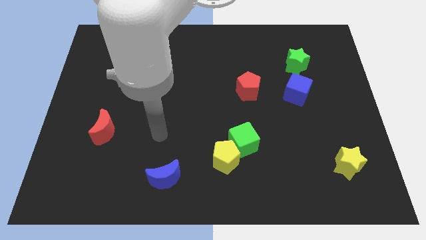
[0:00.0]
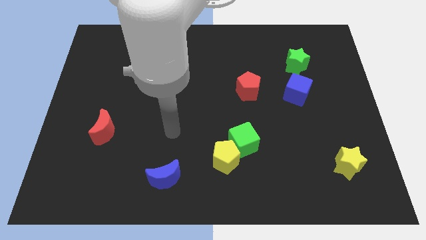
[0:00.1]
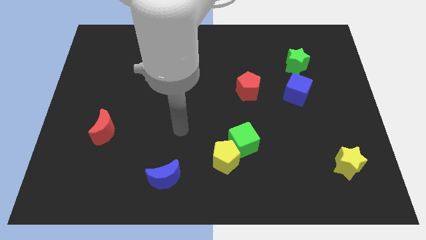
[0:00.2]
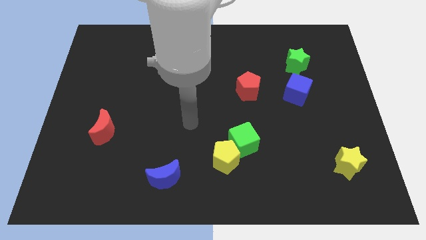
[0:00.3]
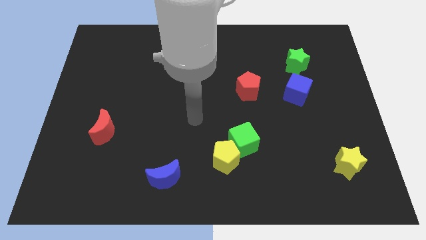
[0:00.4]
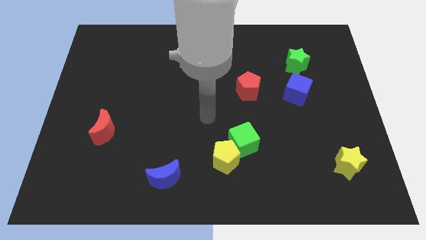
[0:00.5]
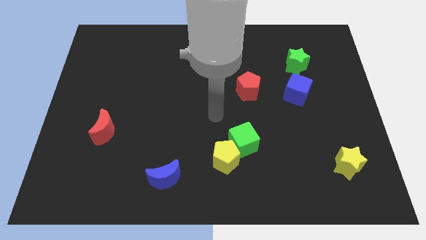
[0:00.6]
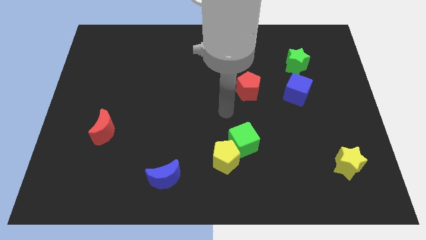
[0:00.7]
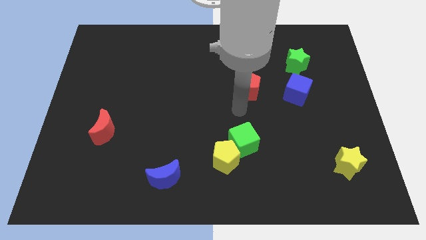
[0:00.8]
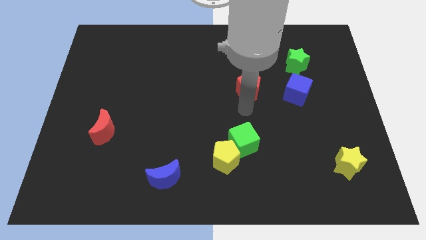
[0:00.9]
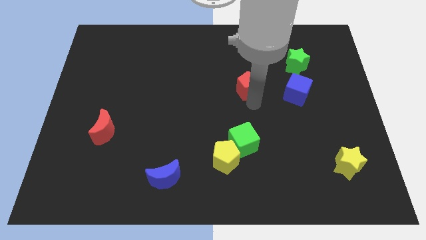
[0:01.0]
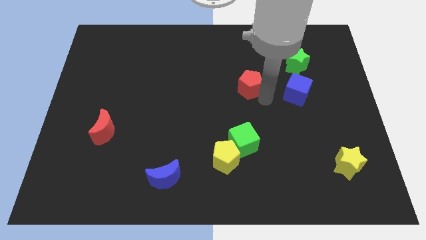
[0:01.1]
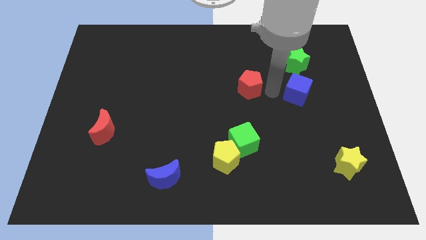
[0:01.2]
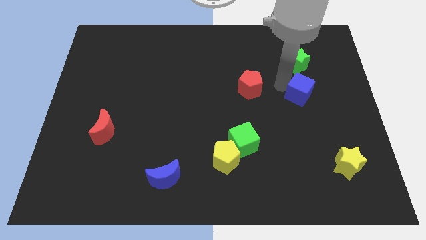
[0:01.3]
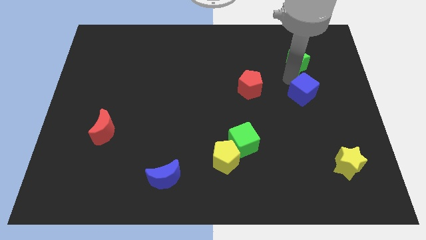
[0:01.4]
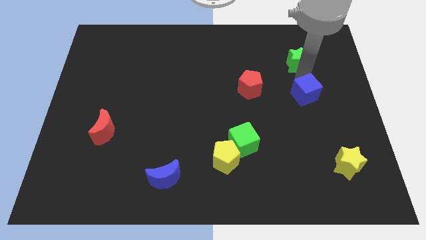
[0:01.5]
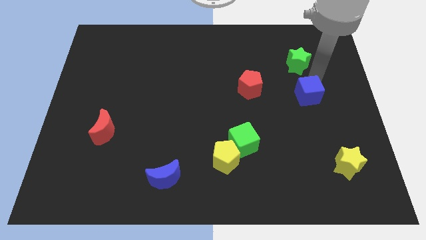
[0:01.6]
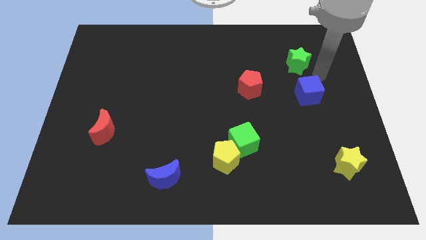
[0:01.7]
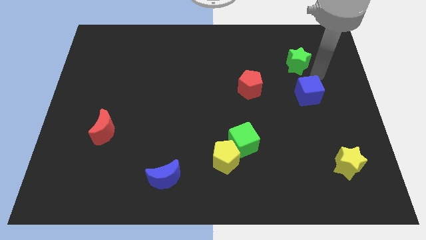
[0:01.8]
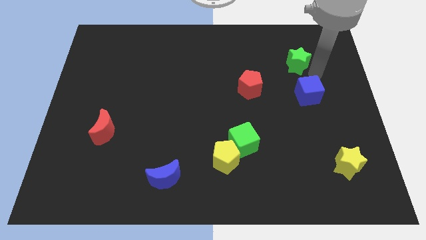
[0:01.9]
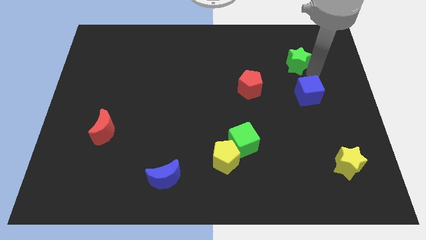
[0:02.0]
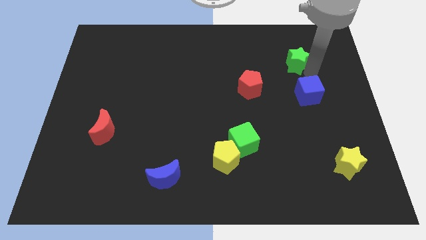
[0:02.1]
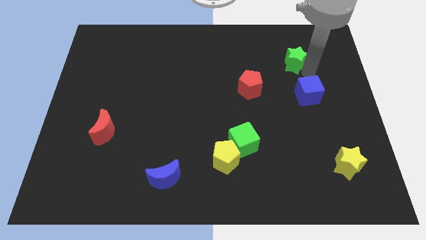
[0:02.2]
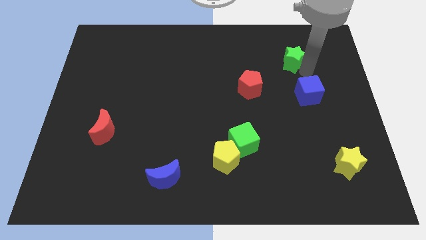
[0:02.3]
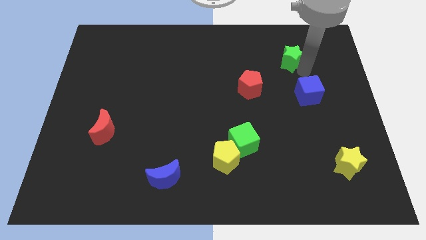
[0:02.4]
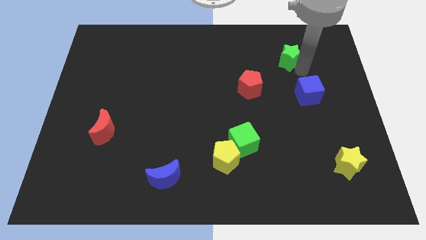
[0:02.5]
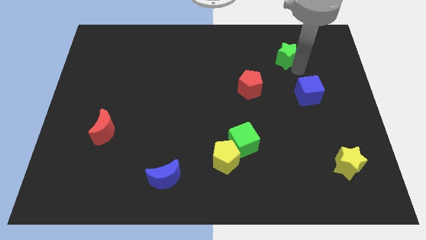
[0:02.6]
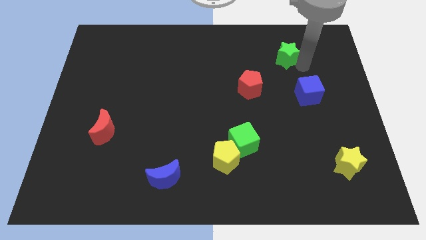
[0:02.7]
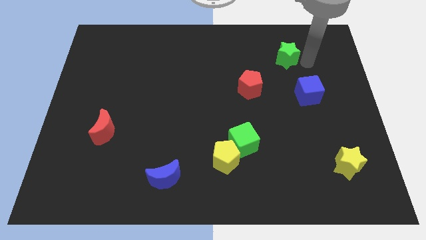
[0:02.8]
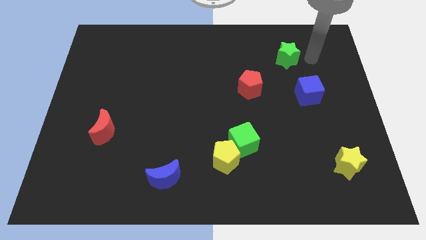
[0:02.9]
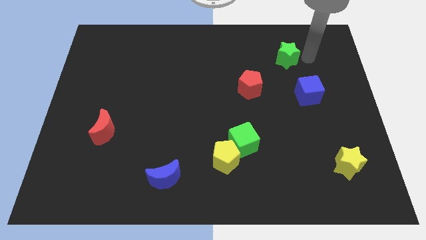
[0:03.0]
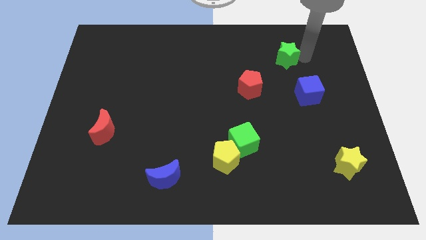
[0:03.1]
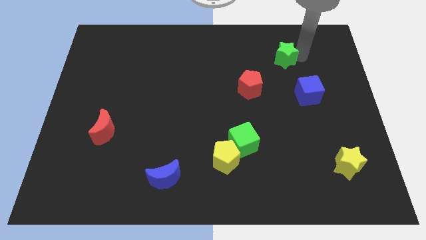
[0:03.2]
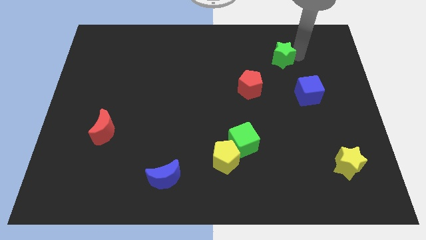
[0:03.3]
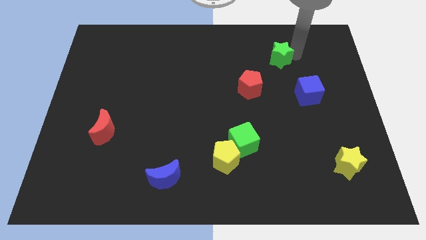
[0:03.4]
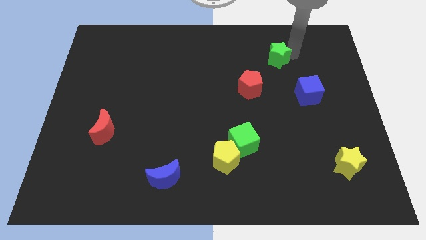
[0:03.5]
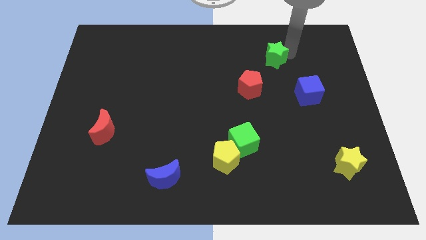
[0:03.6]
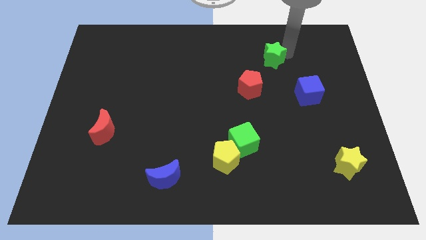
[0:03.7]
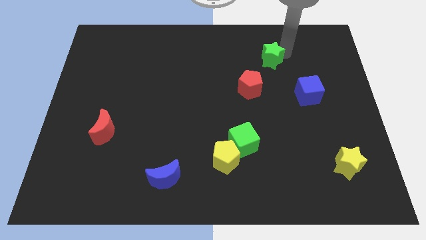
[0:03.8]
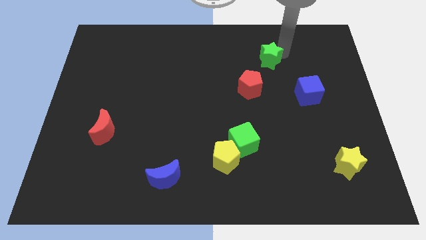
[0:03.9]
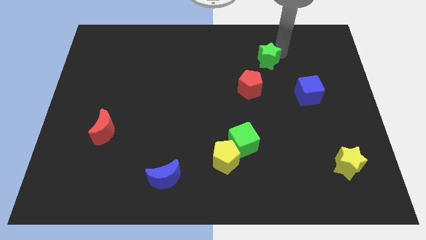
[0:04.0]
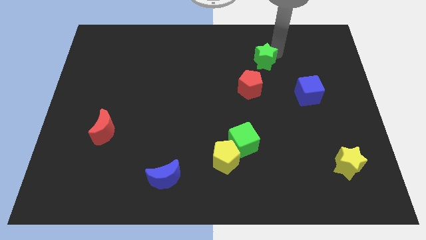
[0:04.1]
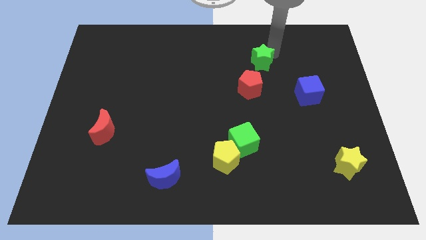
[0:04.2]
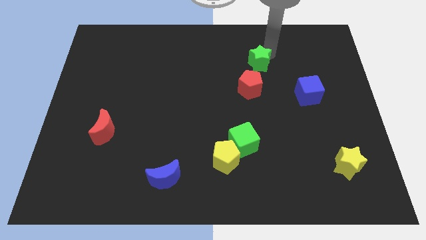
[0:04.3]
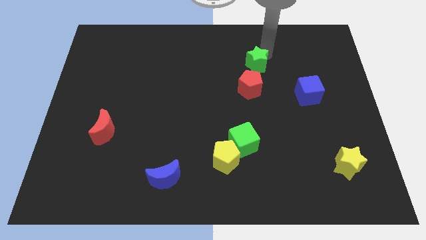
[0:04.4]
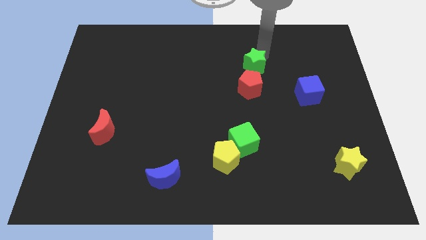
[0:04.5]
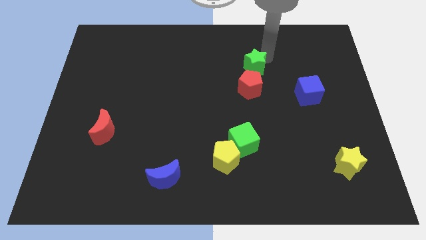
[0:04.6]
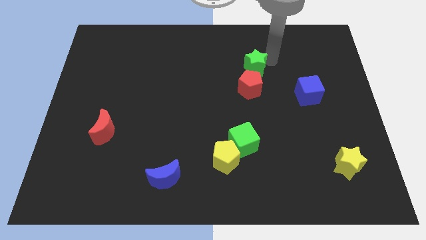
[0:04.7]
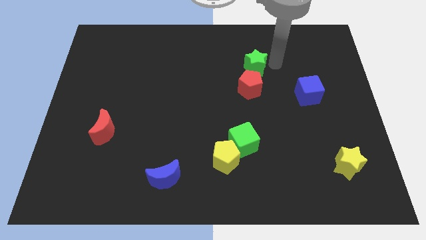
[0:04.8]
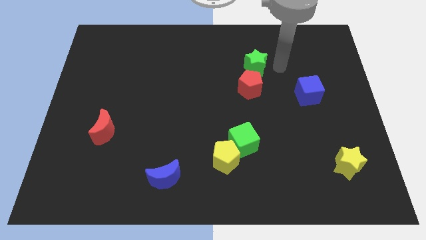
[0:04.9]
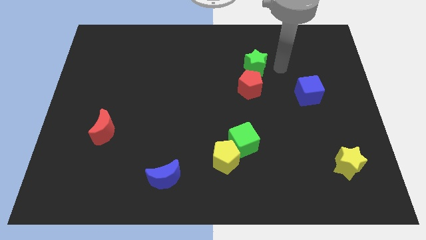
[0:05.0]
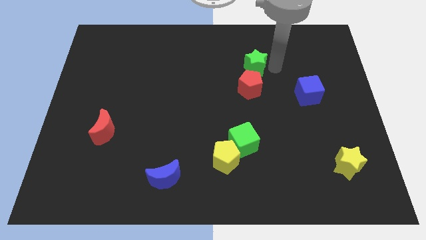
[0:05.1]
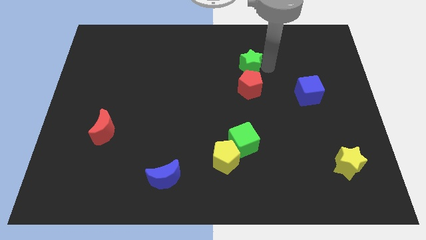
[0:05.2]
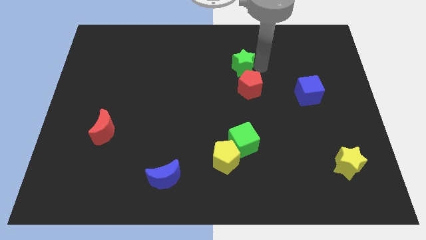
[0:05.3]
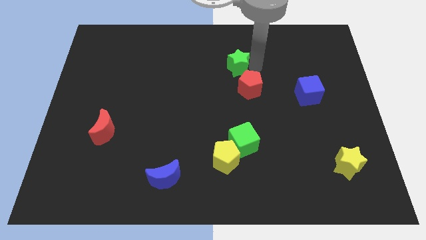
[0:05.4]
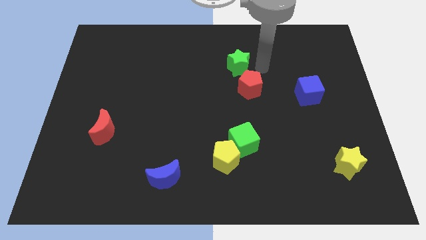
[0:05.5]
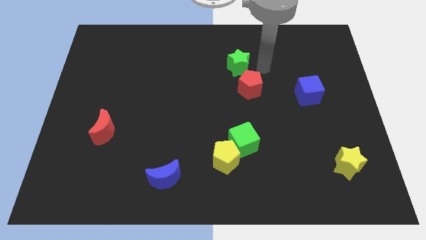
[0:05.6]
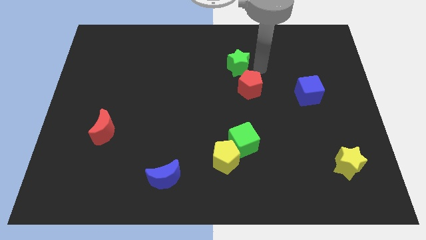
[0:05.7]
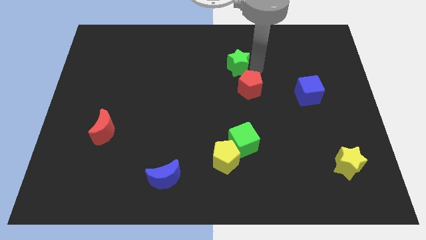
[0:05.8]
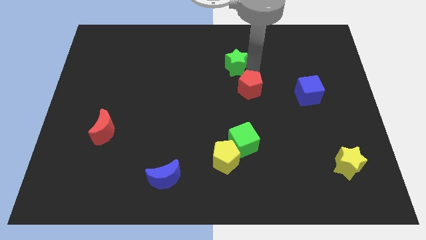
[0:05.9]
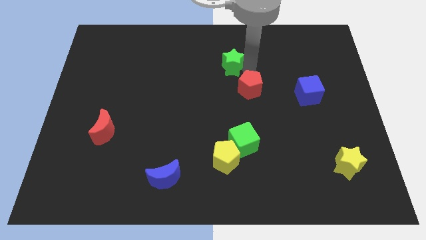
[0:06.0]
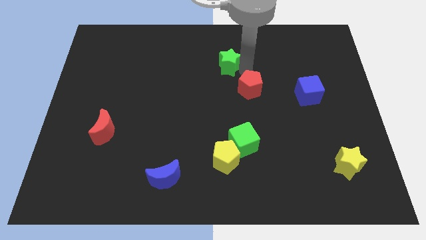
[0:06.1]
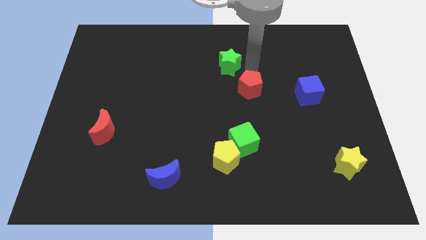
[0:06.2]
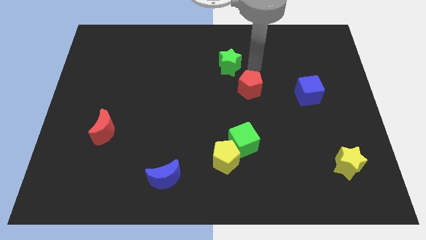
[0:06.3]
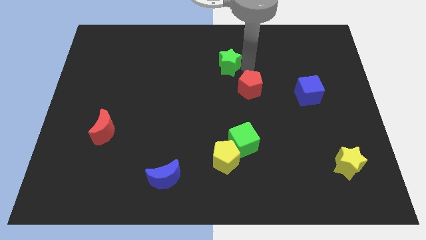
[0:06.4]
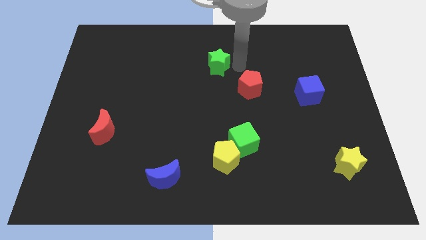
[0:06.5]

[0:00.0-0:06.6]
move the green star to the left

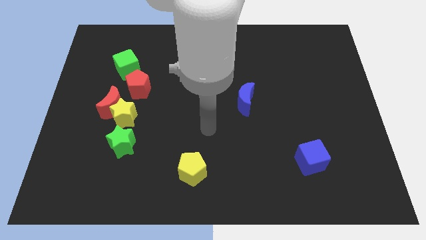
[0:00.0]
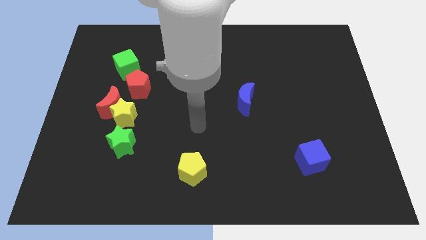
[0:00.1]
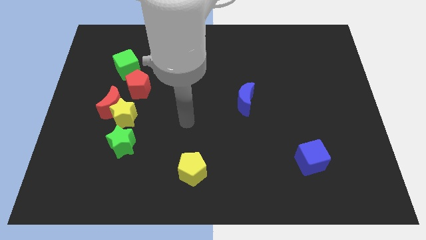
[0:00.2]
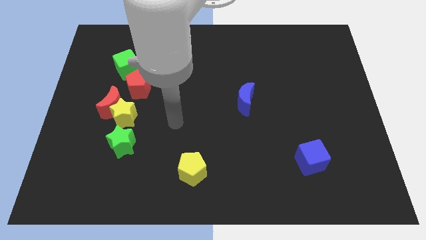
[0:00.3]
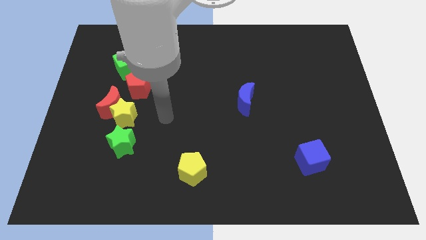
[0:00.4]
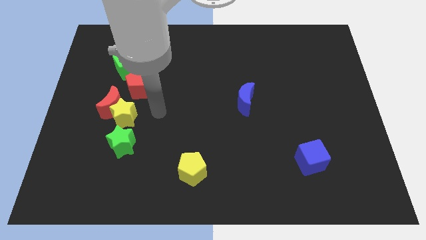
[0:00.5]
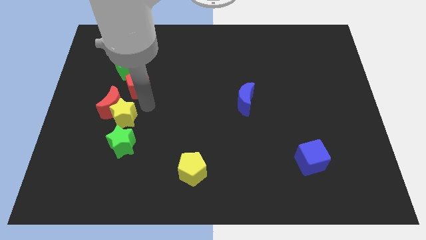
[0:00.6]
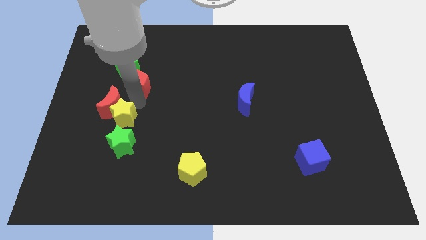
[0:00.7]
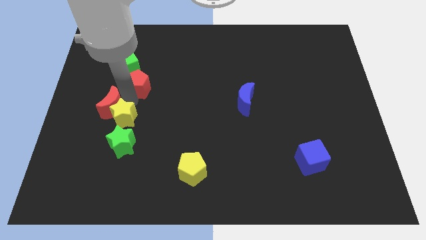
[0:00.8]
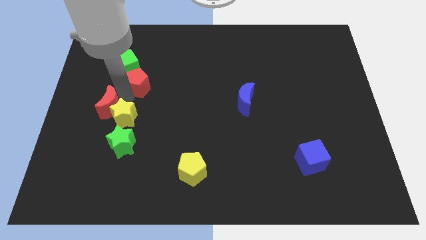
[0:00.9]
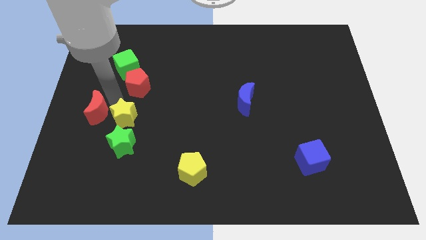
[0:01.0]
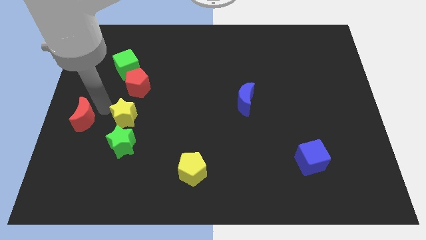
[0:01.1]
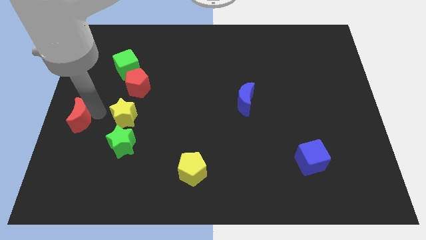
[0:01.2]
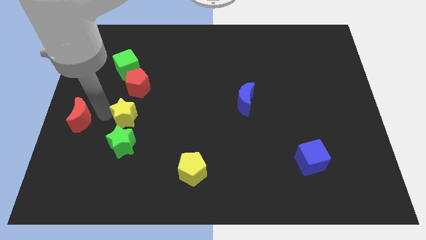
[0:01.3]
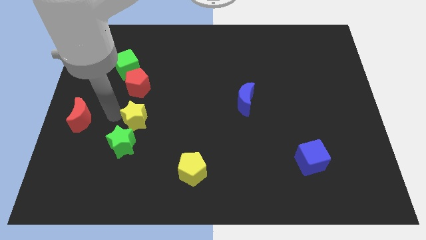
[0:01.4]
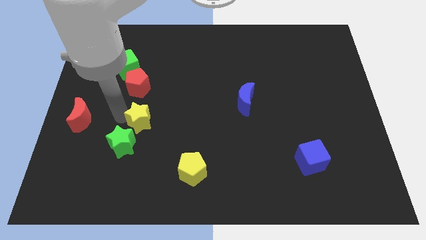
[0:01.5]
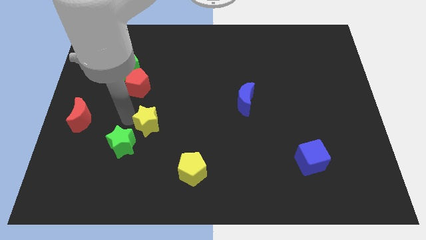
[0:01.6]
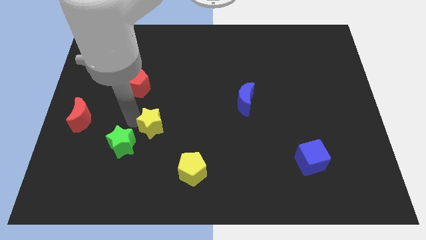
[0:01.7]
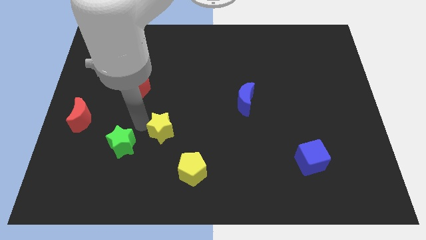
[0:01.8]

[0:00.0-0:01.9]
push the yellow star right somewhat
